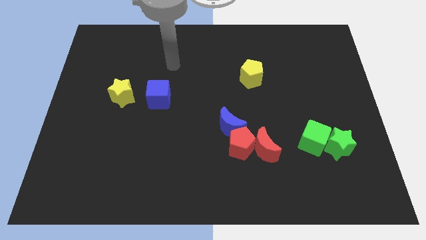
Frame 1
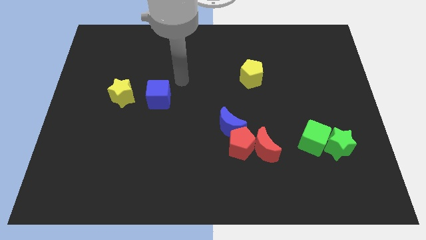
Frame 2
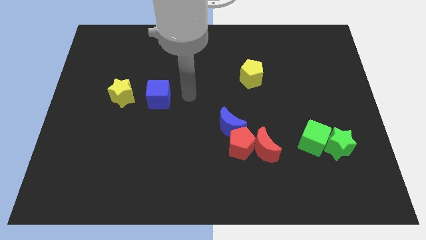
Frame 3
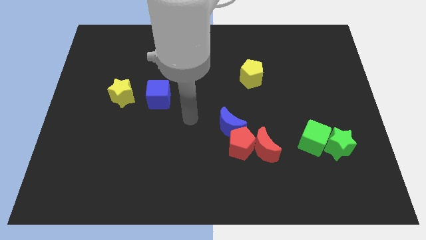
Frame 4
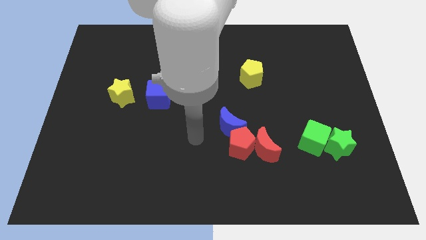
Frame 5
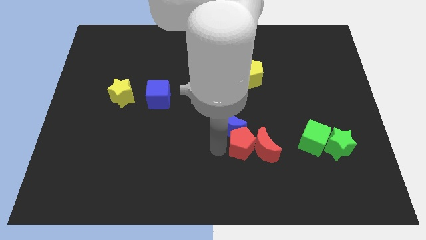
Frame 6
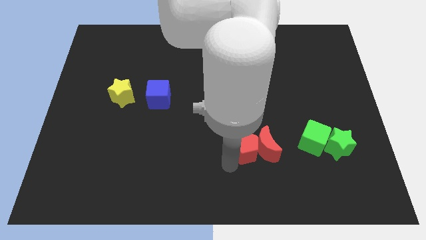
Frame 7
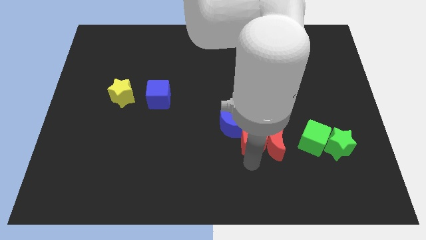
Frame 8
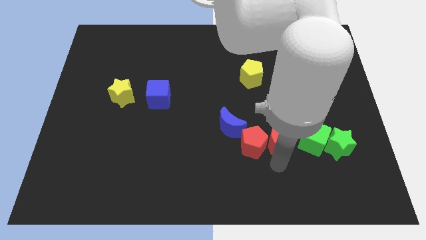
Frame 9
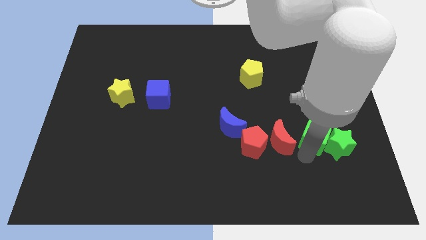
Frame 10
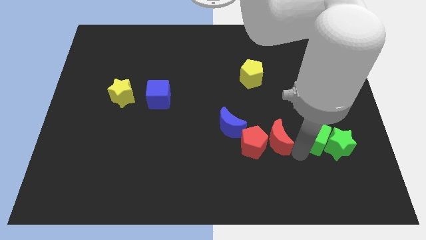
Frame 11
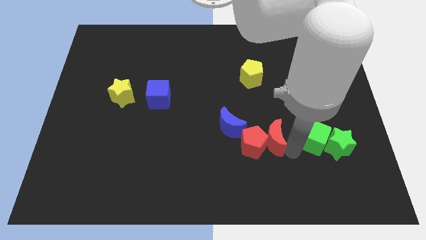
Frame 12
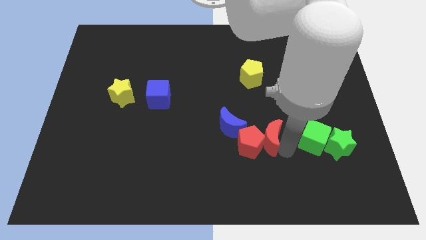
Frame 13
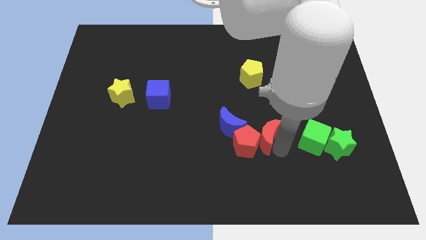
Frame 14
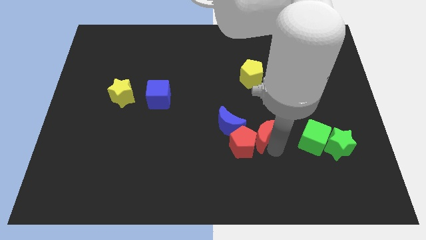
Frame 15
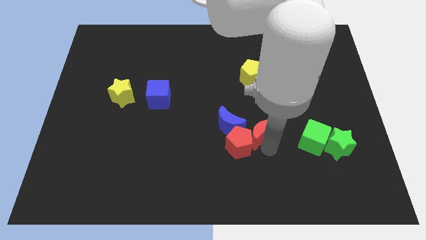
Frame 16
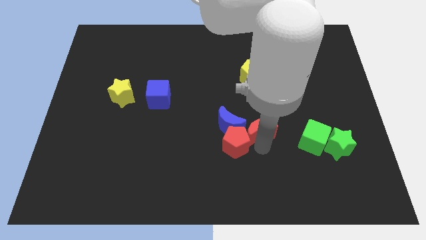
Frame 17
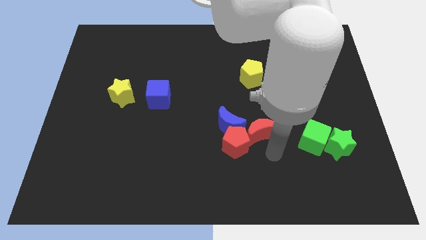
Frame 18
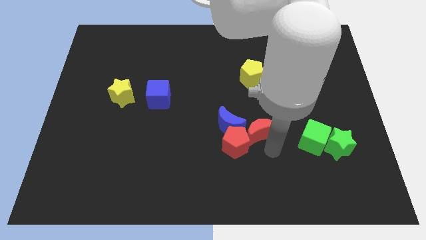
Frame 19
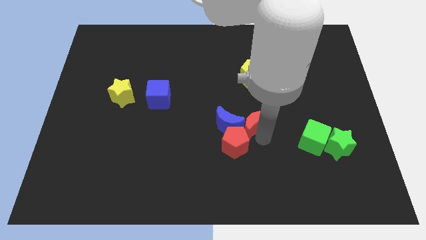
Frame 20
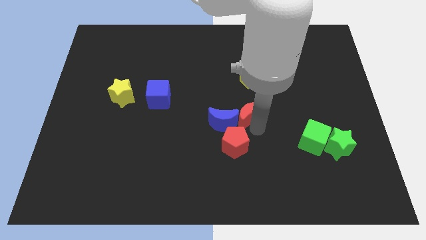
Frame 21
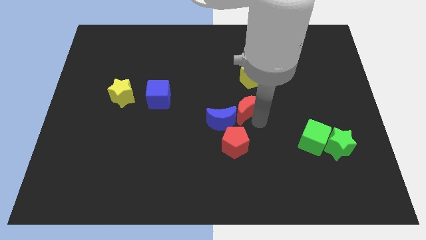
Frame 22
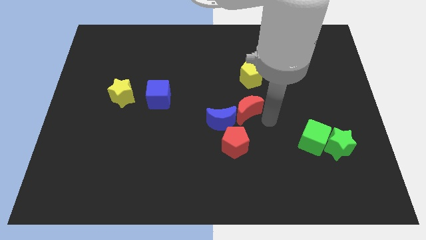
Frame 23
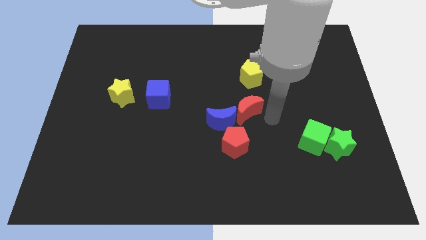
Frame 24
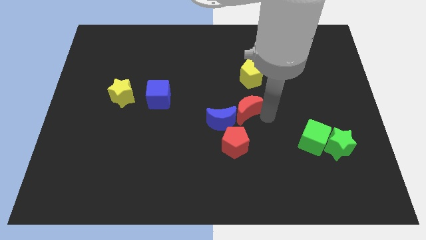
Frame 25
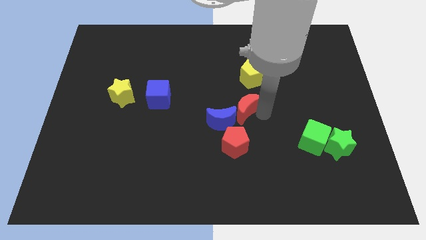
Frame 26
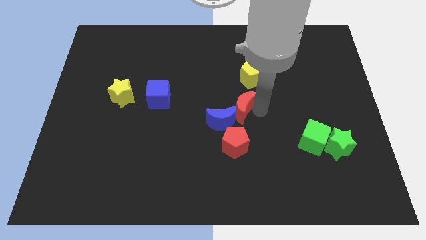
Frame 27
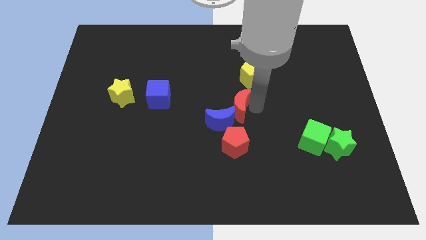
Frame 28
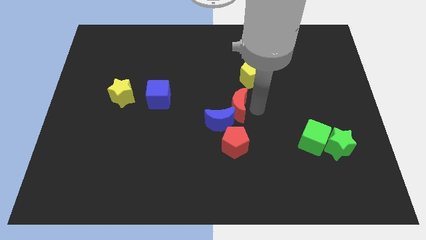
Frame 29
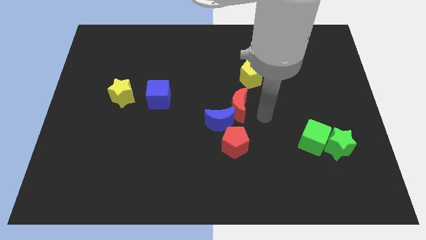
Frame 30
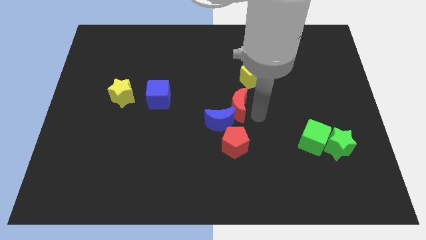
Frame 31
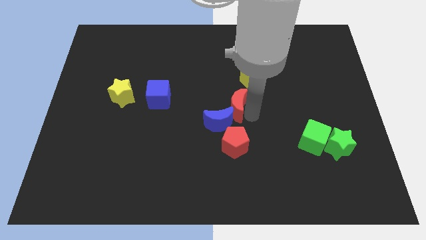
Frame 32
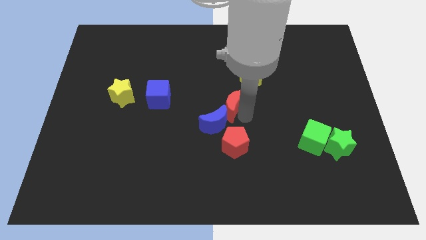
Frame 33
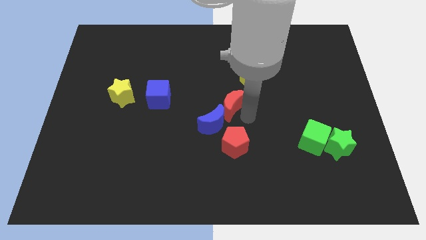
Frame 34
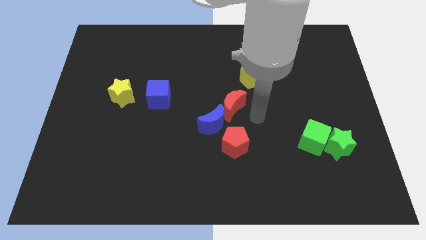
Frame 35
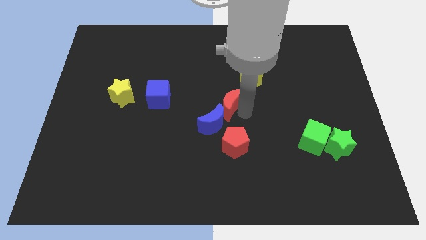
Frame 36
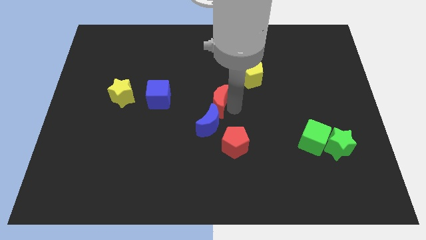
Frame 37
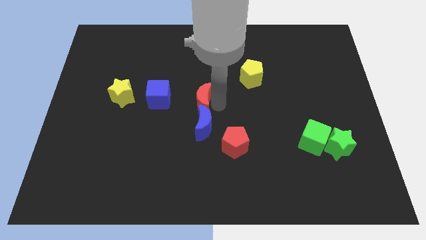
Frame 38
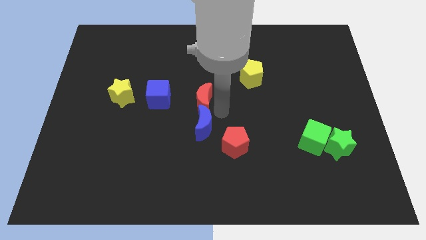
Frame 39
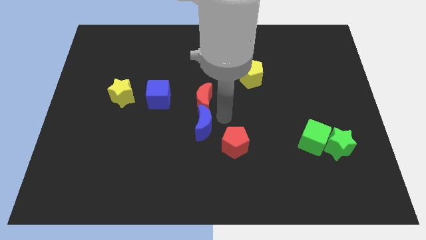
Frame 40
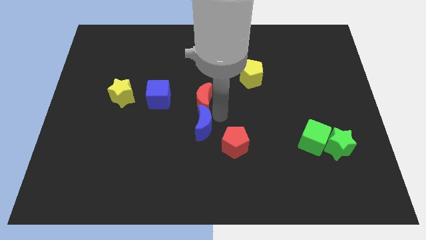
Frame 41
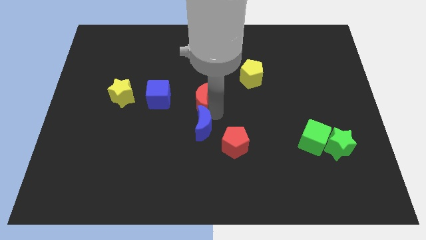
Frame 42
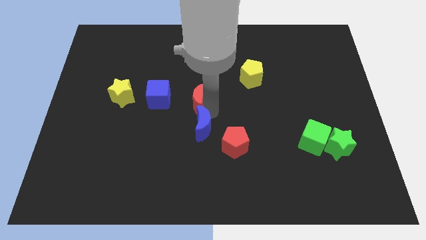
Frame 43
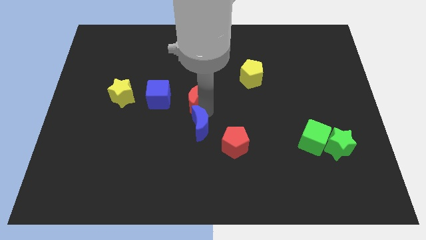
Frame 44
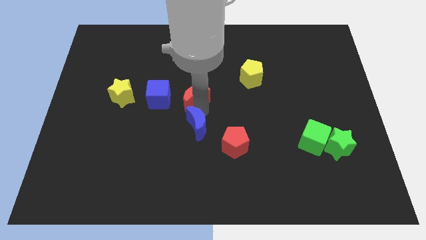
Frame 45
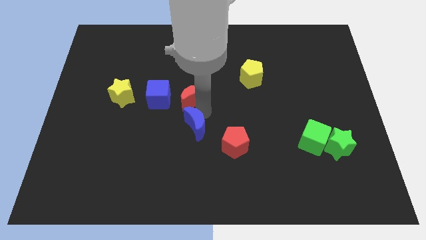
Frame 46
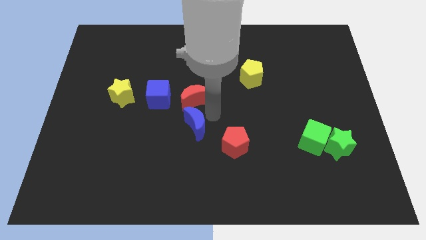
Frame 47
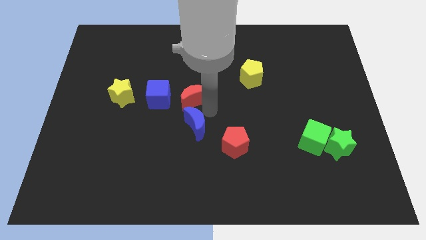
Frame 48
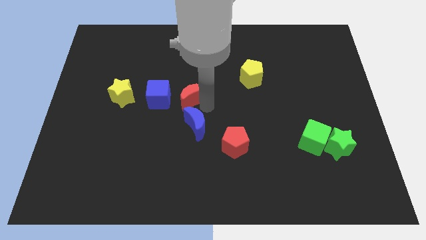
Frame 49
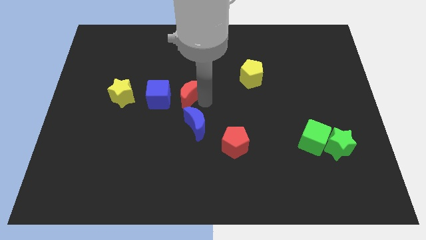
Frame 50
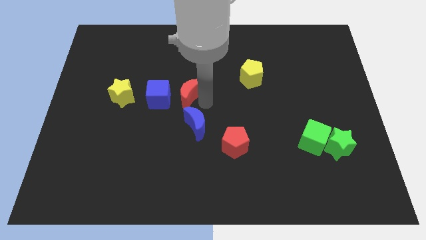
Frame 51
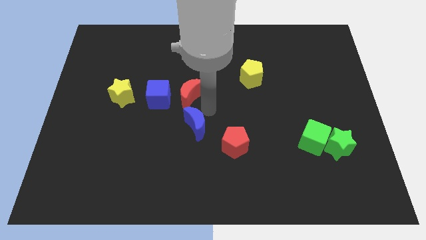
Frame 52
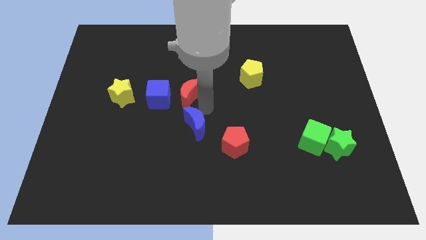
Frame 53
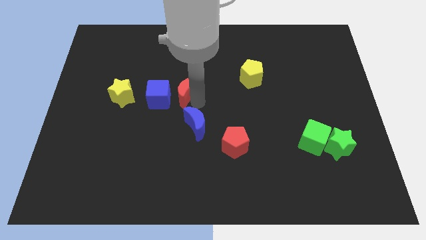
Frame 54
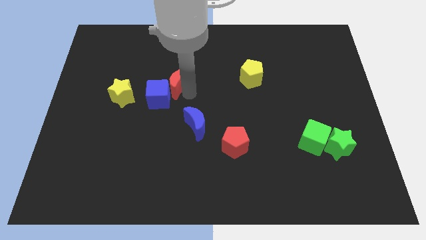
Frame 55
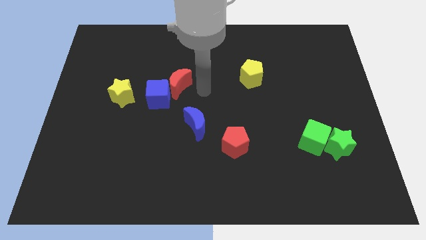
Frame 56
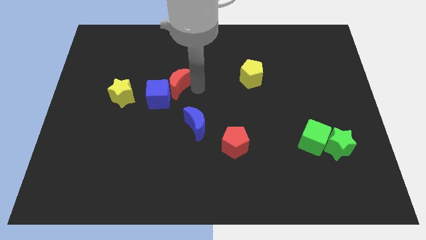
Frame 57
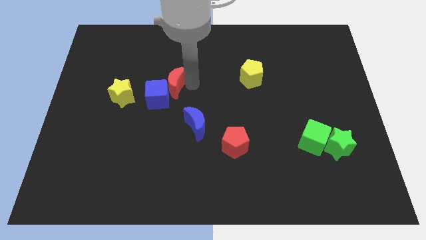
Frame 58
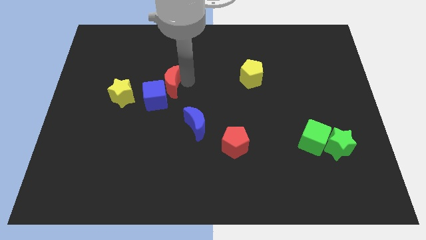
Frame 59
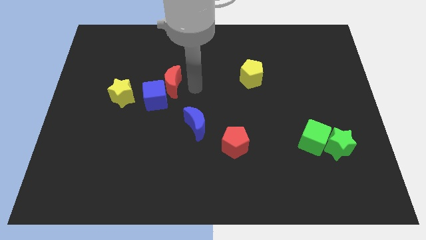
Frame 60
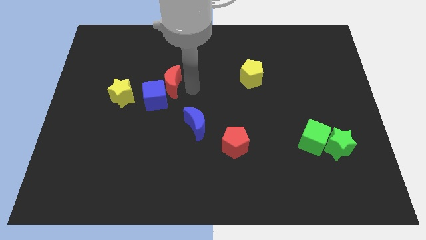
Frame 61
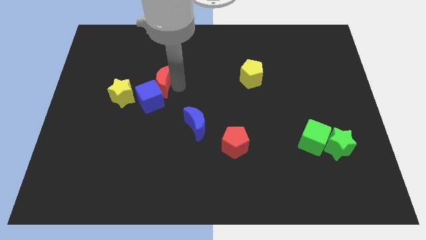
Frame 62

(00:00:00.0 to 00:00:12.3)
put the red moon diagonally up and to the right of the yellow star
